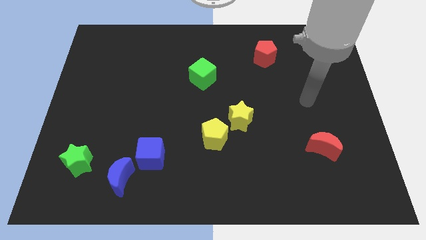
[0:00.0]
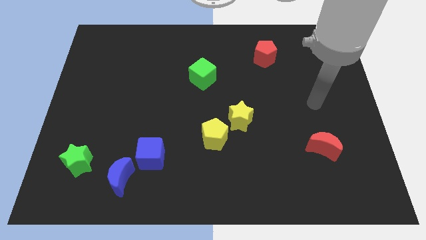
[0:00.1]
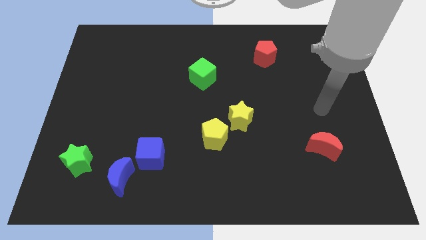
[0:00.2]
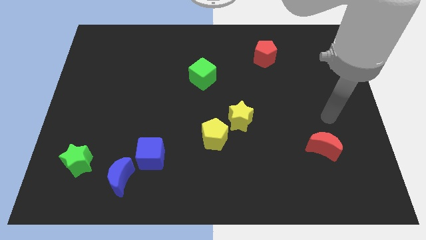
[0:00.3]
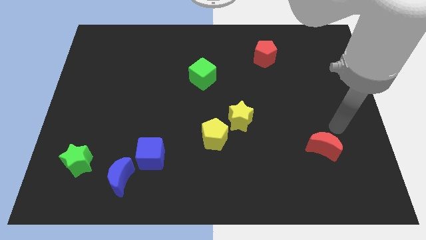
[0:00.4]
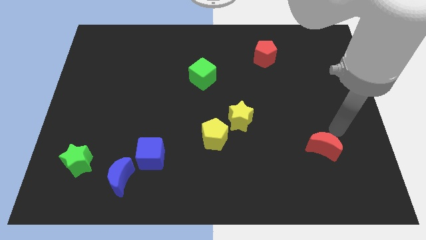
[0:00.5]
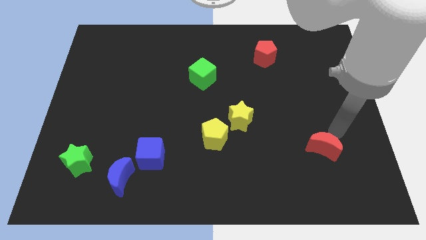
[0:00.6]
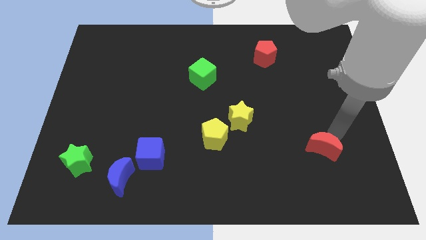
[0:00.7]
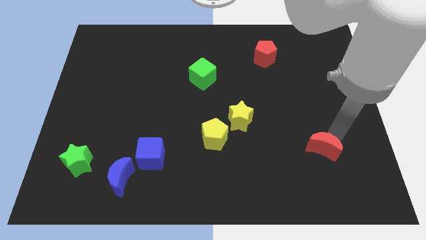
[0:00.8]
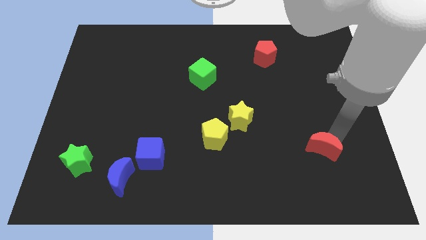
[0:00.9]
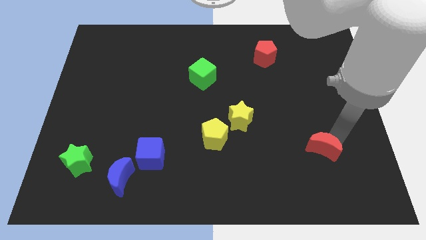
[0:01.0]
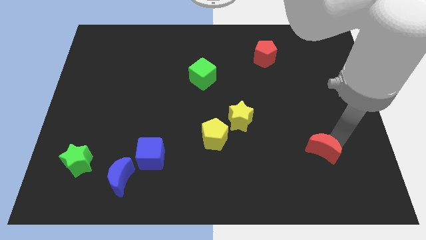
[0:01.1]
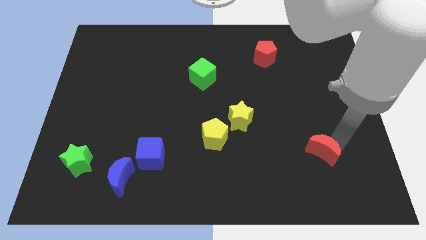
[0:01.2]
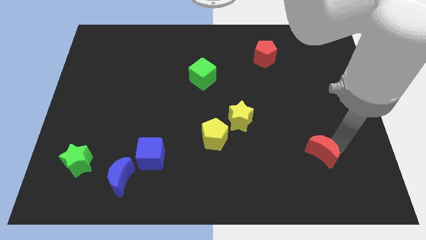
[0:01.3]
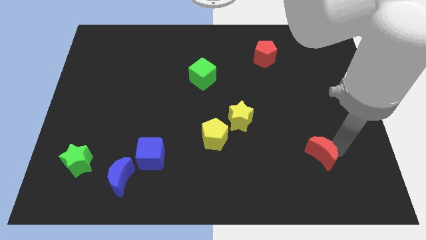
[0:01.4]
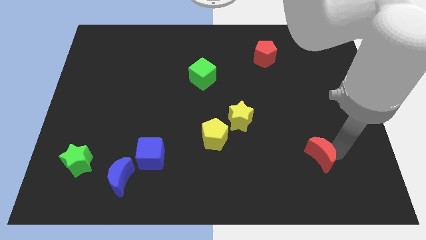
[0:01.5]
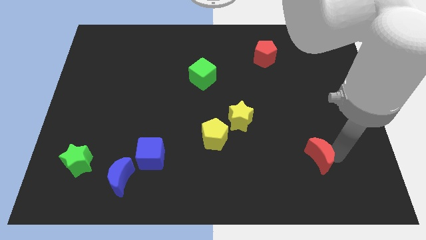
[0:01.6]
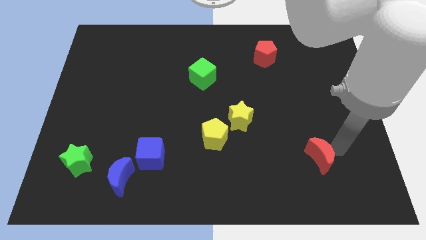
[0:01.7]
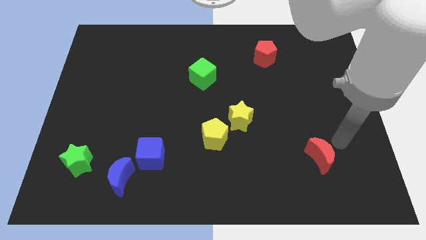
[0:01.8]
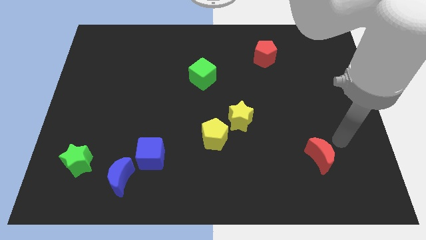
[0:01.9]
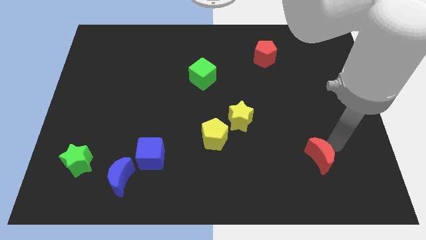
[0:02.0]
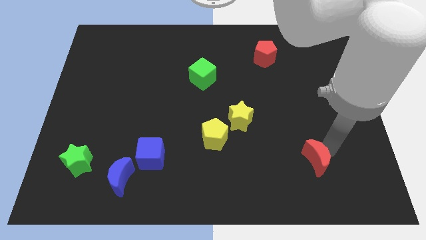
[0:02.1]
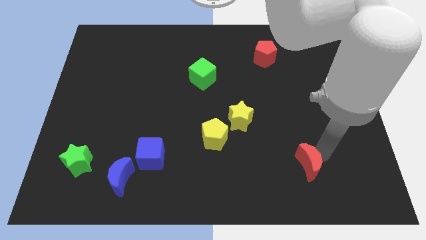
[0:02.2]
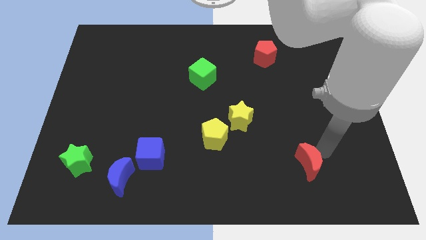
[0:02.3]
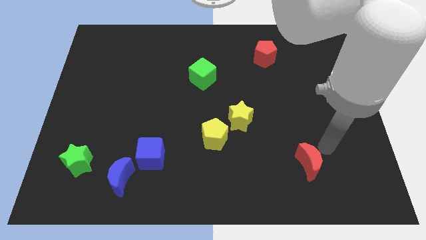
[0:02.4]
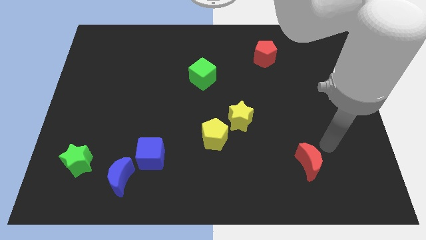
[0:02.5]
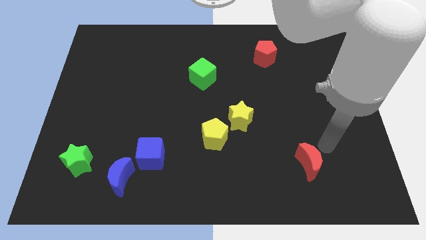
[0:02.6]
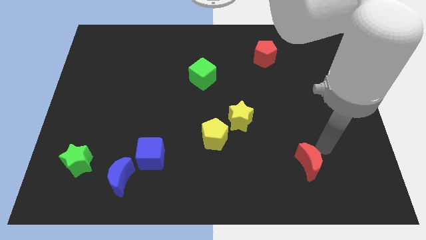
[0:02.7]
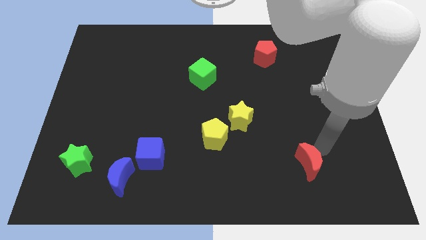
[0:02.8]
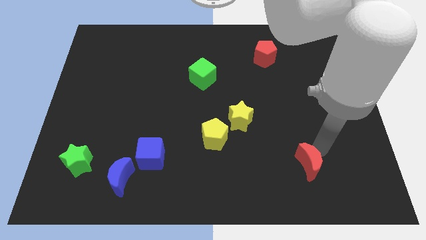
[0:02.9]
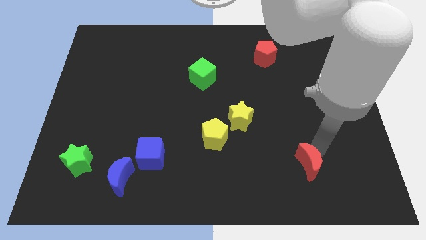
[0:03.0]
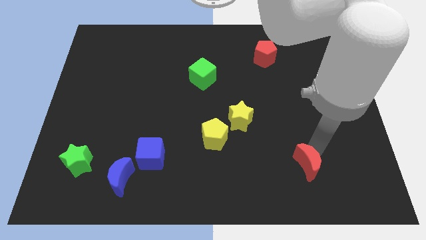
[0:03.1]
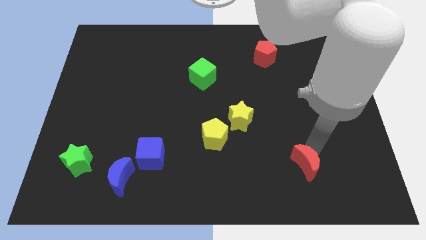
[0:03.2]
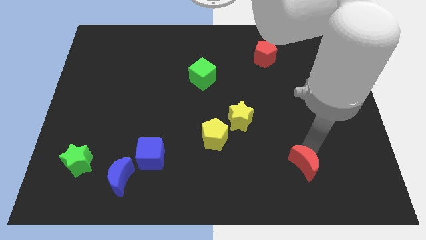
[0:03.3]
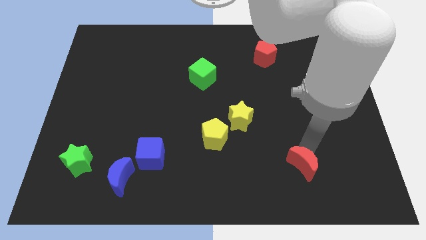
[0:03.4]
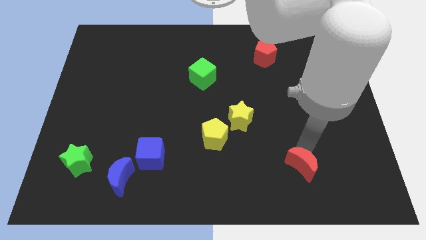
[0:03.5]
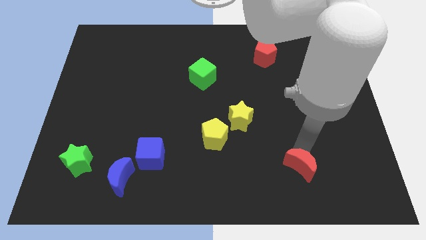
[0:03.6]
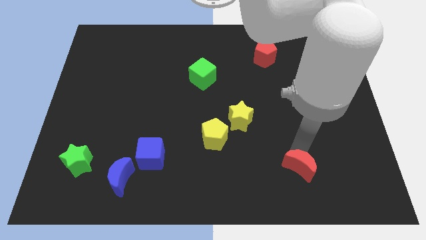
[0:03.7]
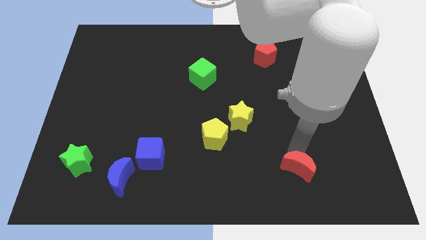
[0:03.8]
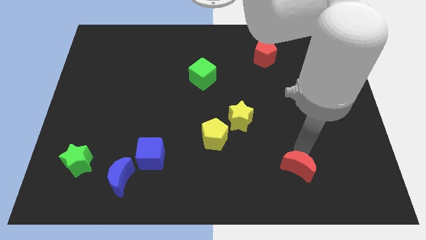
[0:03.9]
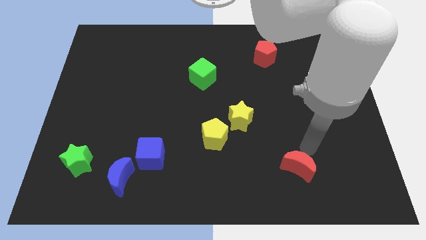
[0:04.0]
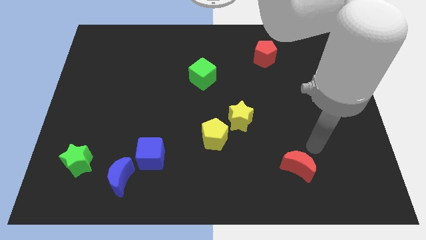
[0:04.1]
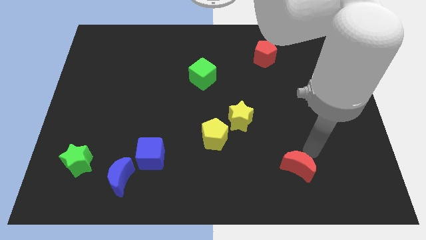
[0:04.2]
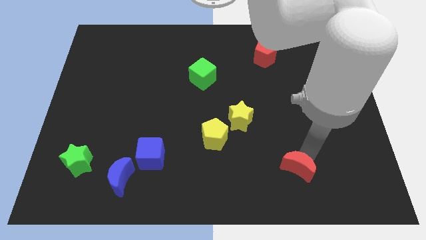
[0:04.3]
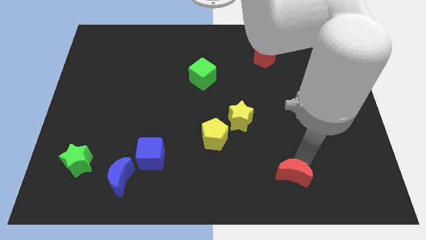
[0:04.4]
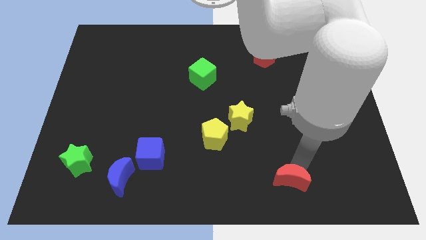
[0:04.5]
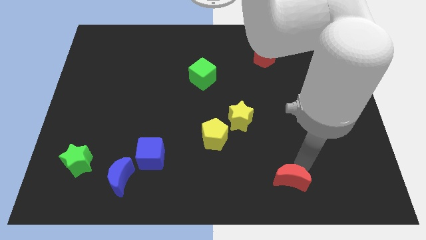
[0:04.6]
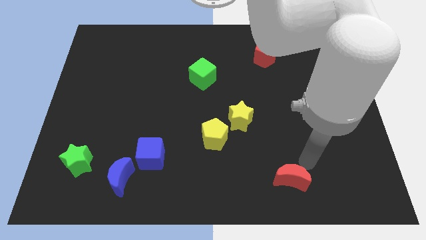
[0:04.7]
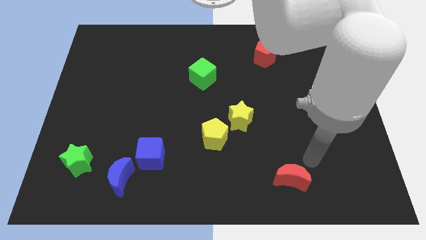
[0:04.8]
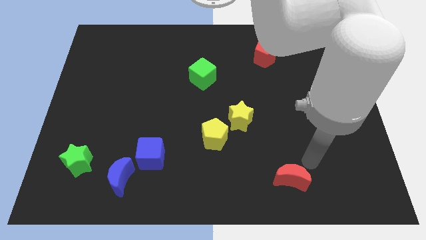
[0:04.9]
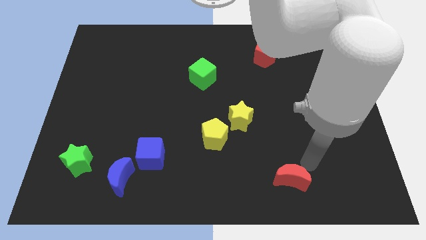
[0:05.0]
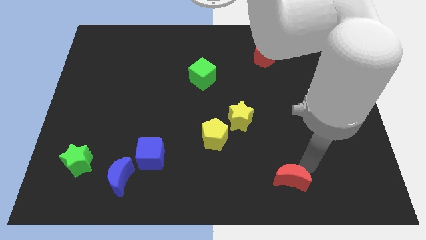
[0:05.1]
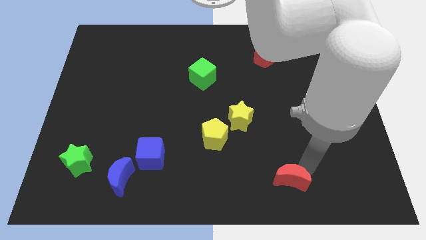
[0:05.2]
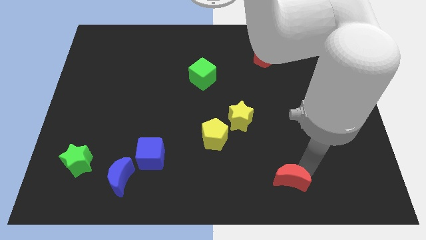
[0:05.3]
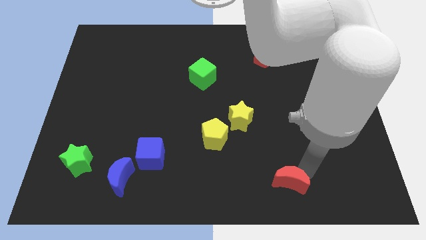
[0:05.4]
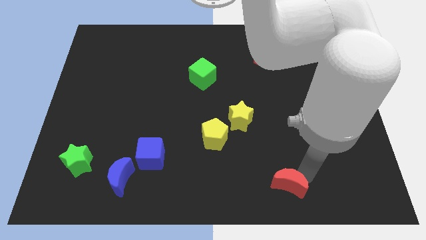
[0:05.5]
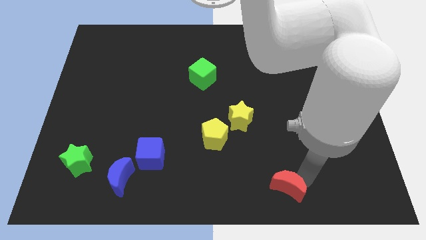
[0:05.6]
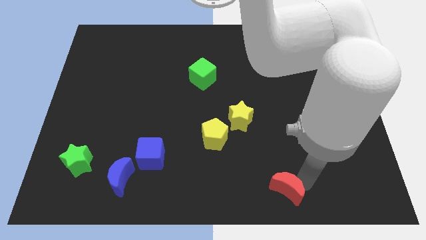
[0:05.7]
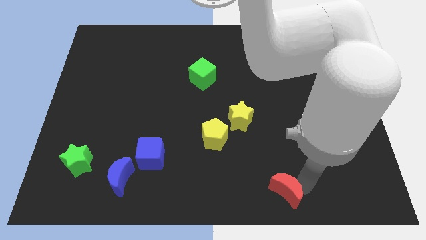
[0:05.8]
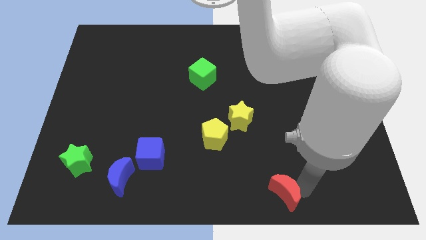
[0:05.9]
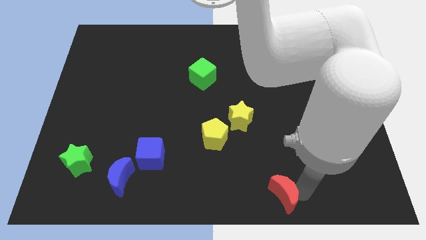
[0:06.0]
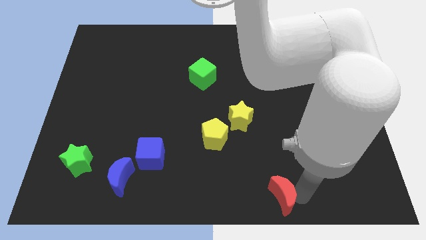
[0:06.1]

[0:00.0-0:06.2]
move the red moon to the bottom side
